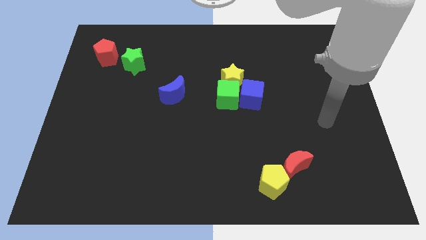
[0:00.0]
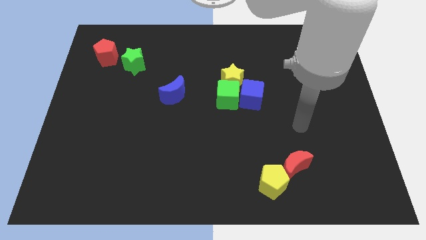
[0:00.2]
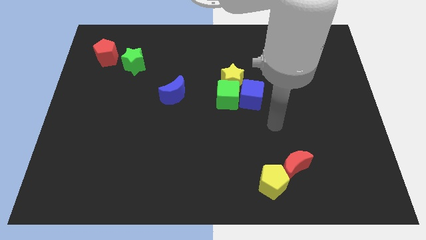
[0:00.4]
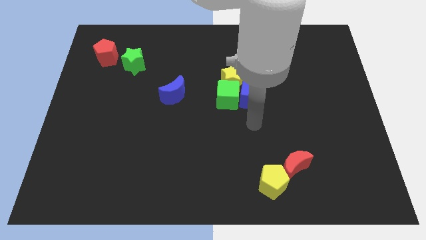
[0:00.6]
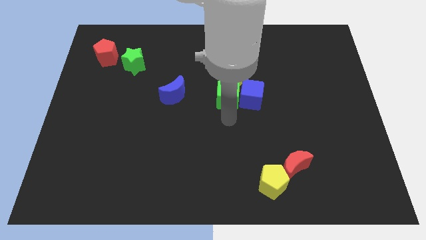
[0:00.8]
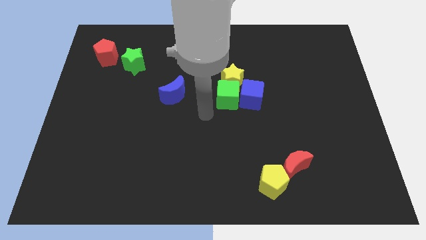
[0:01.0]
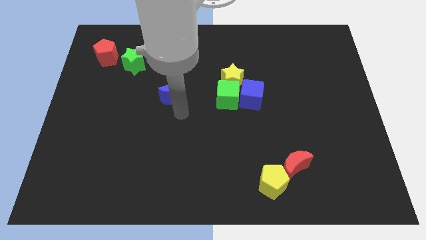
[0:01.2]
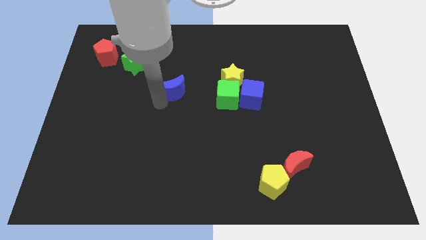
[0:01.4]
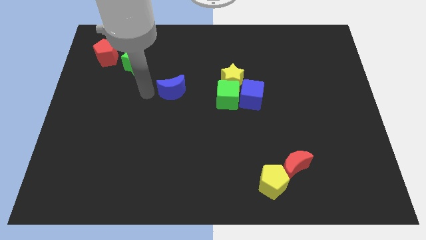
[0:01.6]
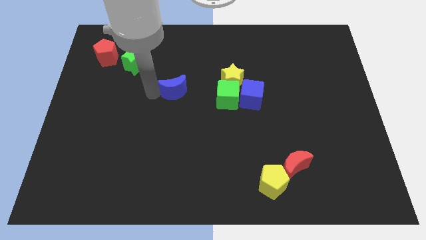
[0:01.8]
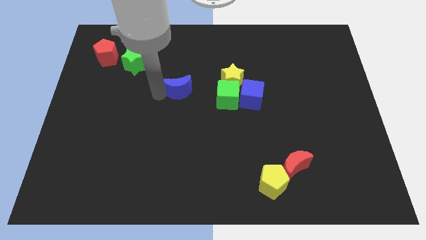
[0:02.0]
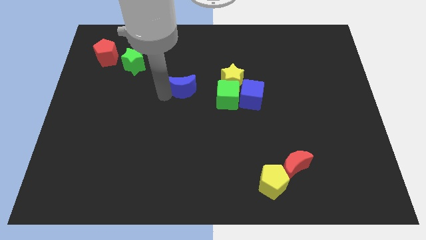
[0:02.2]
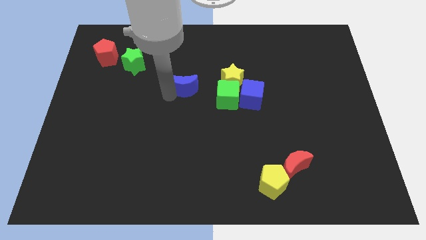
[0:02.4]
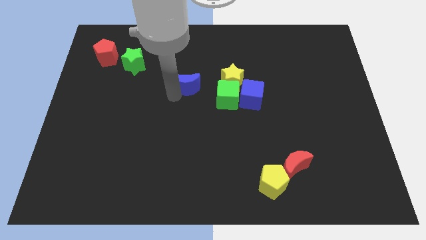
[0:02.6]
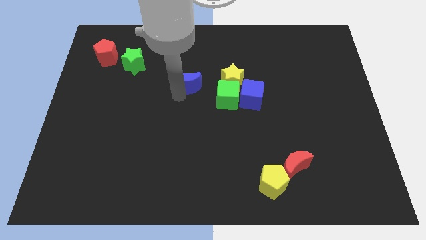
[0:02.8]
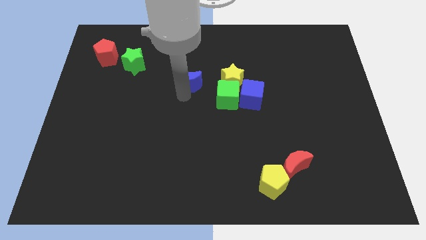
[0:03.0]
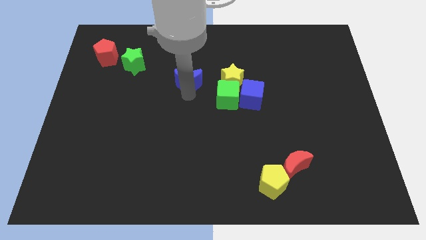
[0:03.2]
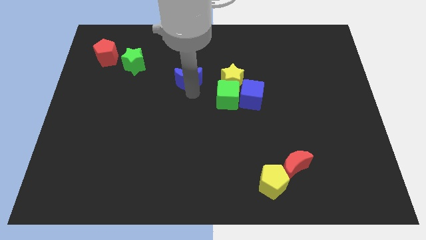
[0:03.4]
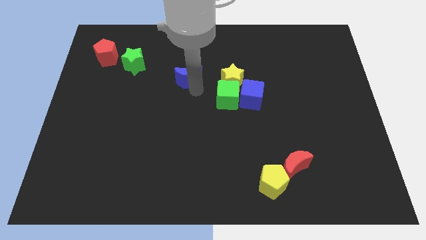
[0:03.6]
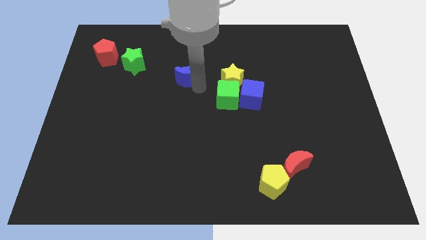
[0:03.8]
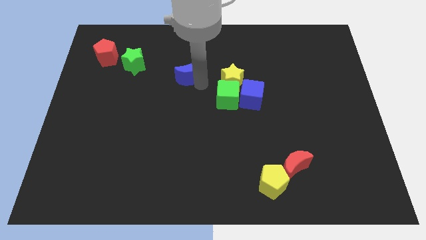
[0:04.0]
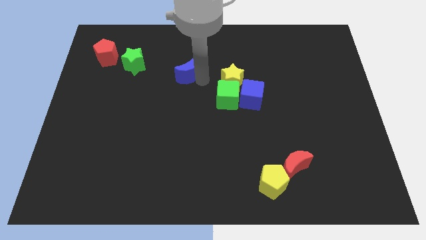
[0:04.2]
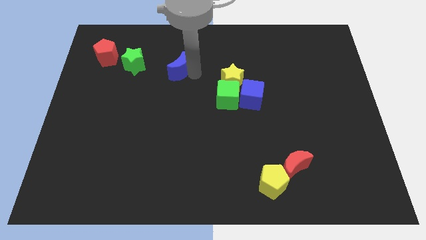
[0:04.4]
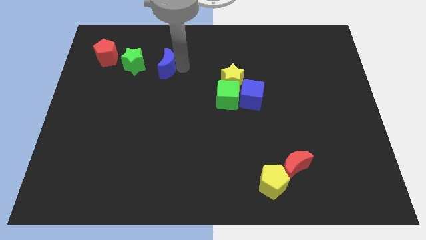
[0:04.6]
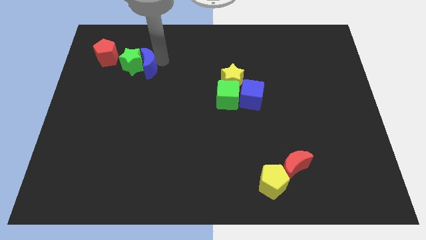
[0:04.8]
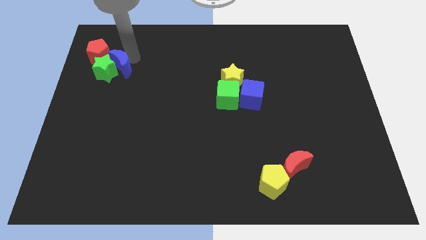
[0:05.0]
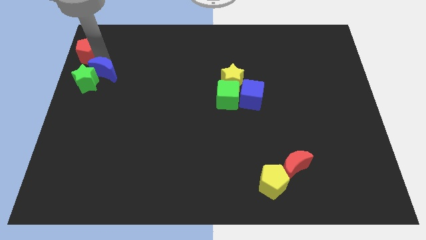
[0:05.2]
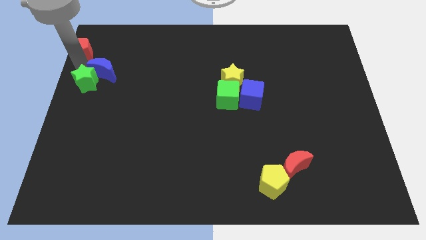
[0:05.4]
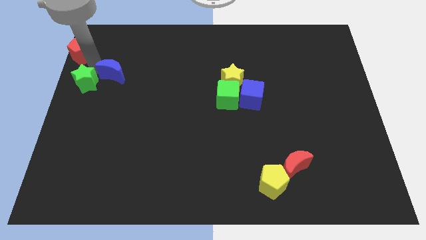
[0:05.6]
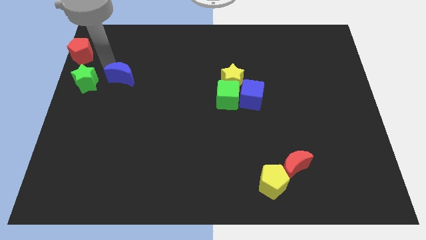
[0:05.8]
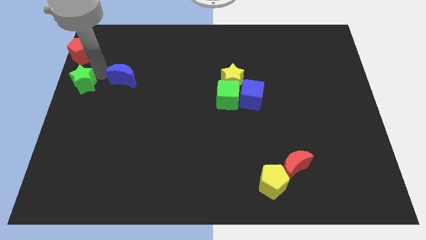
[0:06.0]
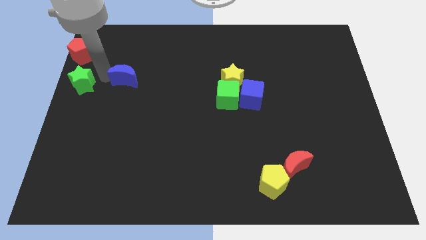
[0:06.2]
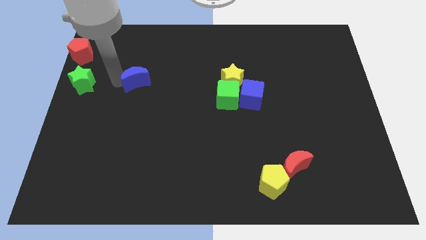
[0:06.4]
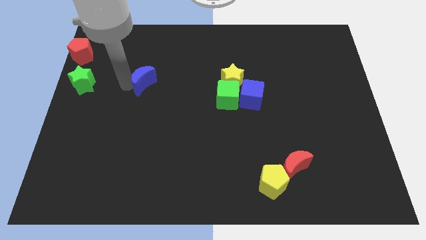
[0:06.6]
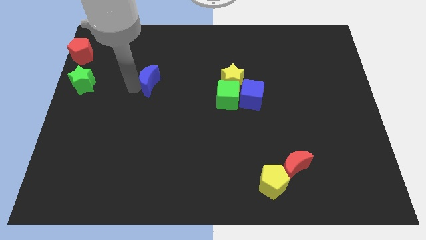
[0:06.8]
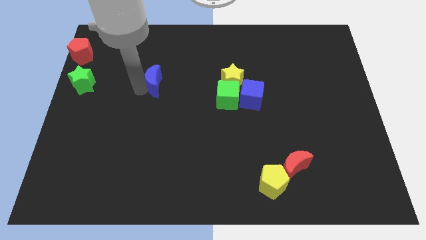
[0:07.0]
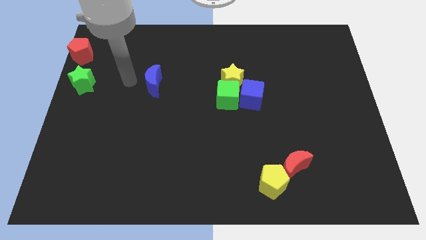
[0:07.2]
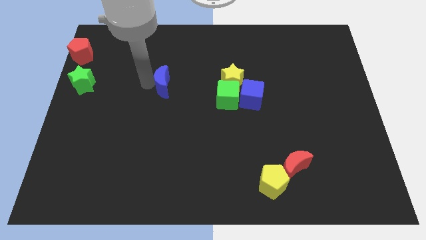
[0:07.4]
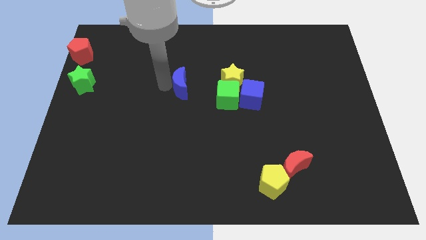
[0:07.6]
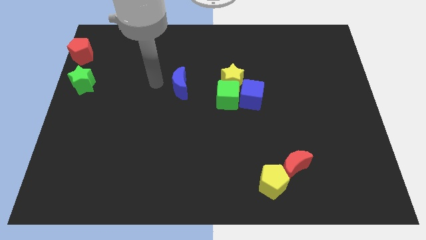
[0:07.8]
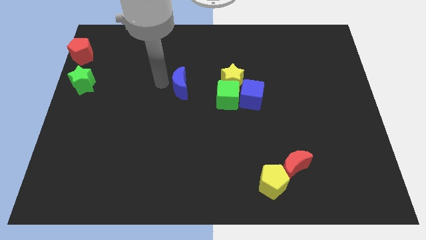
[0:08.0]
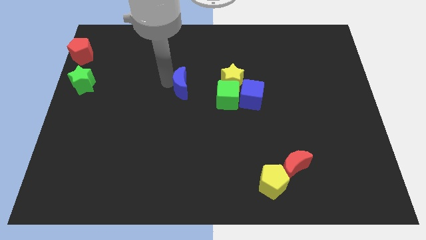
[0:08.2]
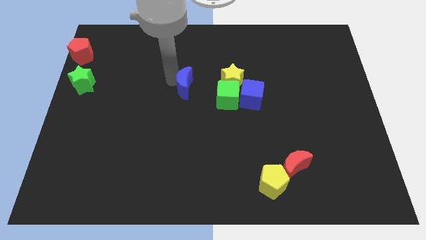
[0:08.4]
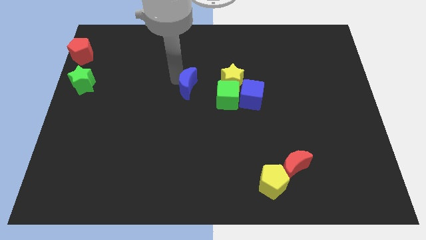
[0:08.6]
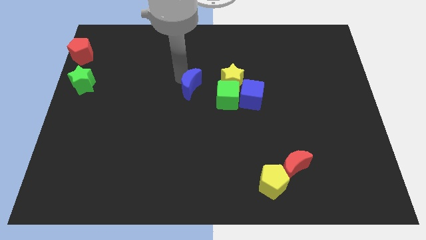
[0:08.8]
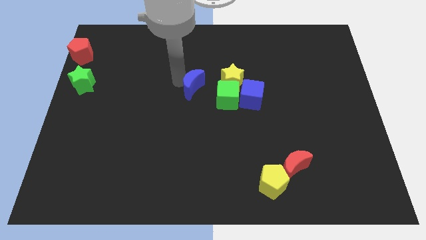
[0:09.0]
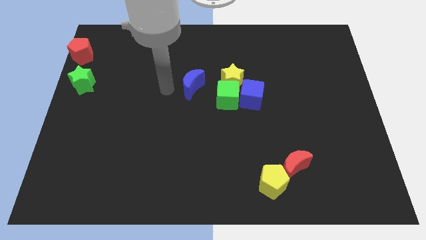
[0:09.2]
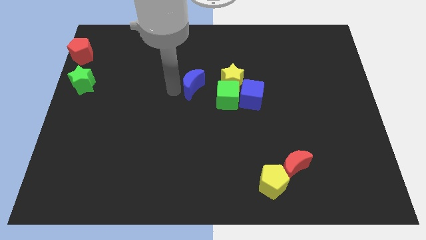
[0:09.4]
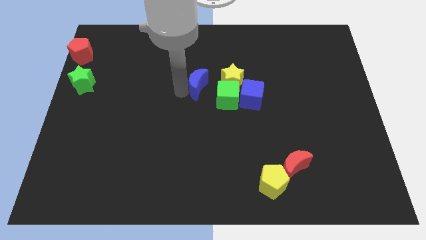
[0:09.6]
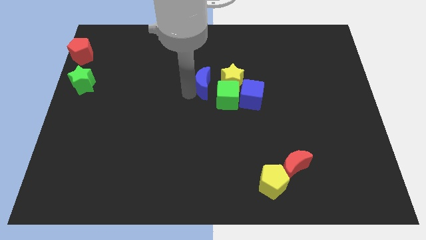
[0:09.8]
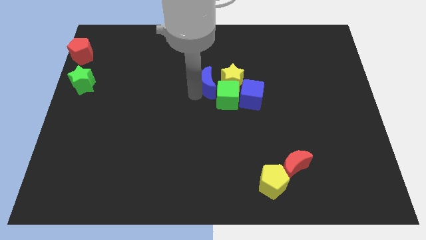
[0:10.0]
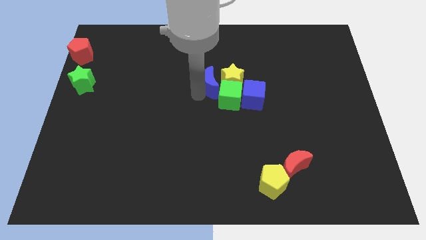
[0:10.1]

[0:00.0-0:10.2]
move the blue moon close to the yellow star
